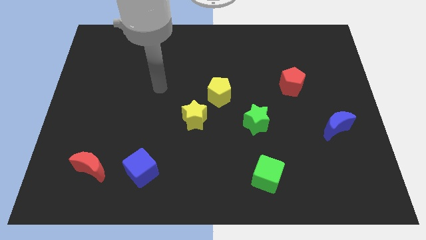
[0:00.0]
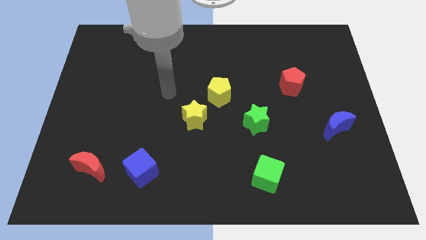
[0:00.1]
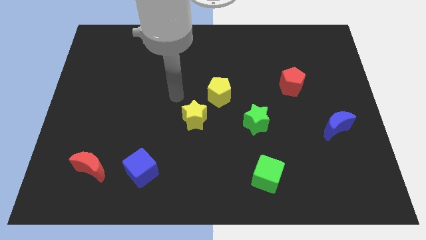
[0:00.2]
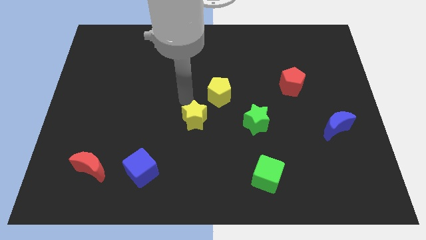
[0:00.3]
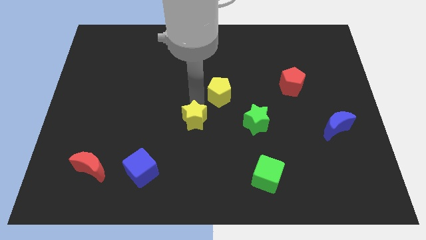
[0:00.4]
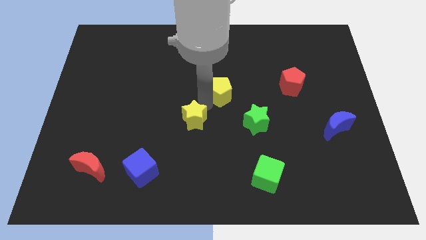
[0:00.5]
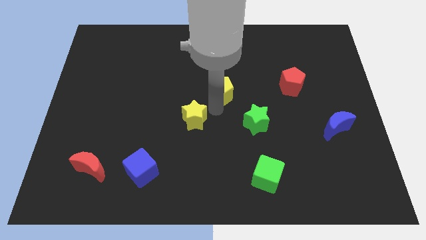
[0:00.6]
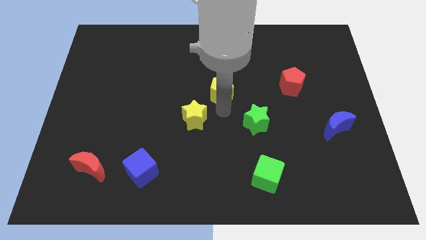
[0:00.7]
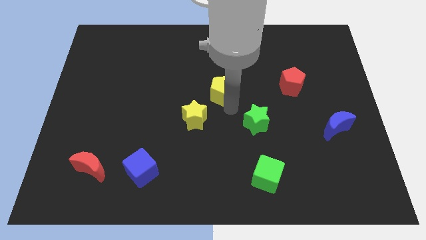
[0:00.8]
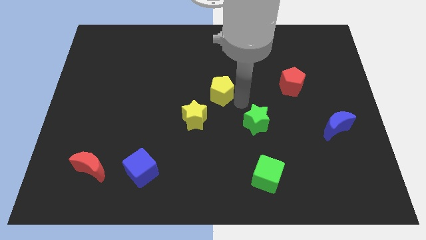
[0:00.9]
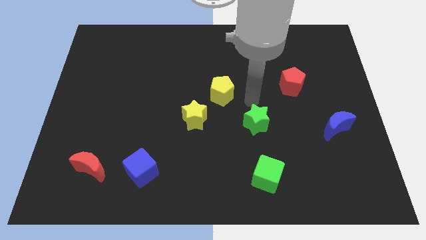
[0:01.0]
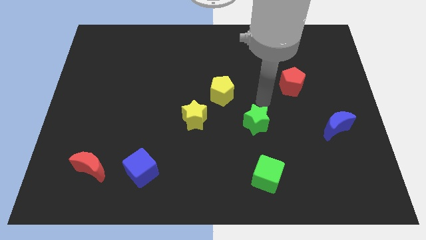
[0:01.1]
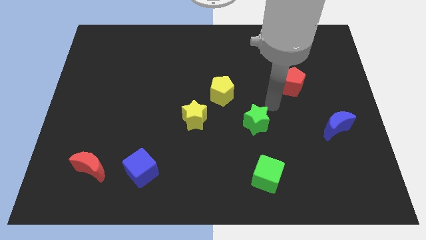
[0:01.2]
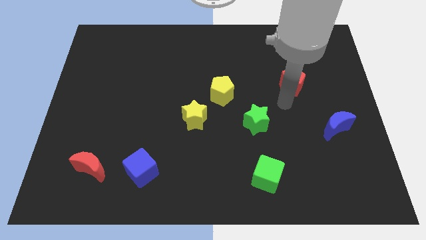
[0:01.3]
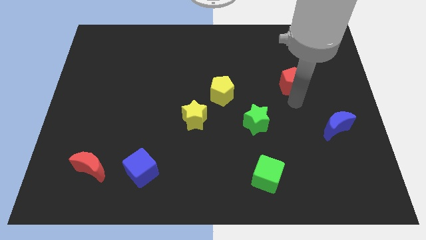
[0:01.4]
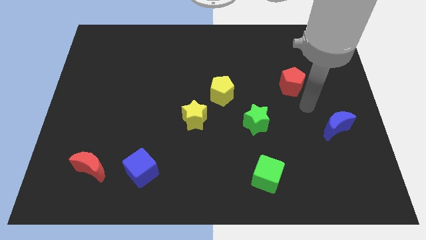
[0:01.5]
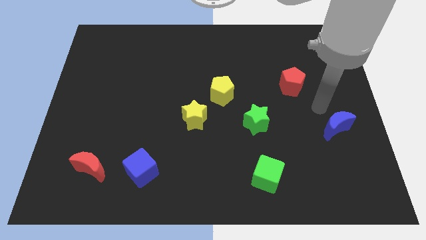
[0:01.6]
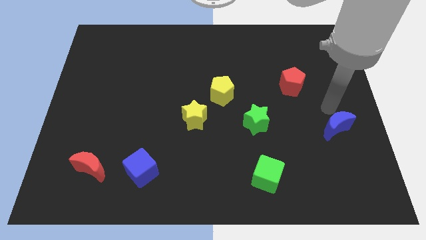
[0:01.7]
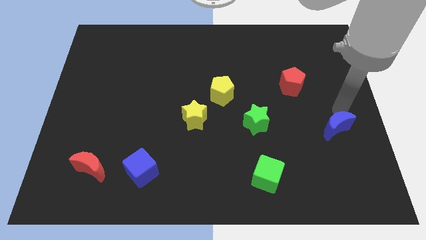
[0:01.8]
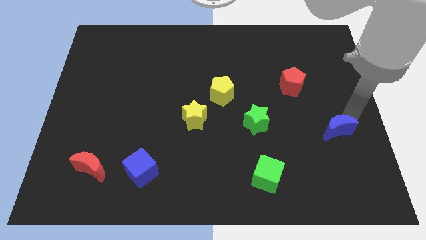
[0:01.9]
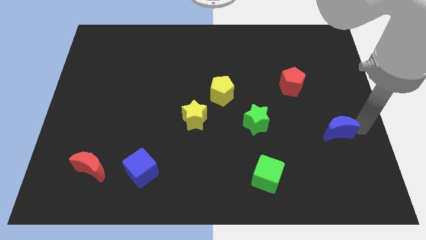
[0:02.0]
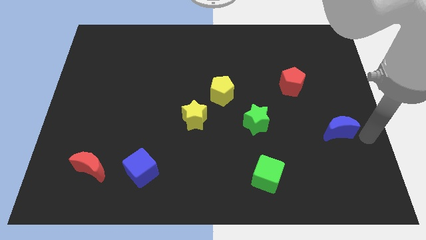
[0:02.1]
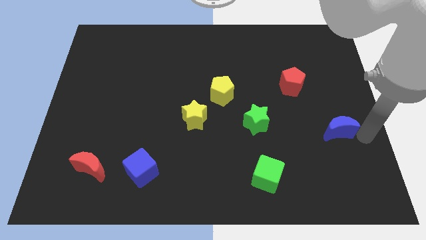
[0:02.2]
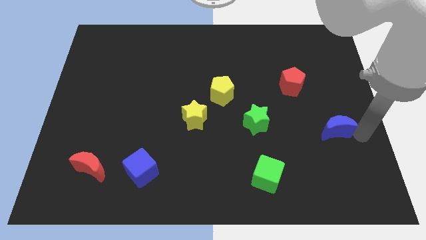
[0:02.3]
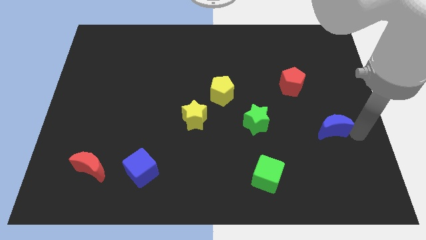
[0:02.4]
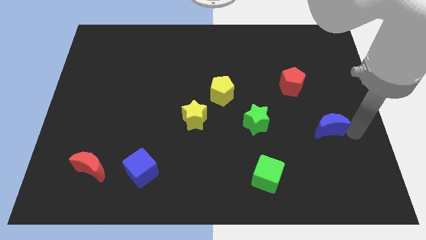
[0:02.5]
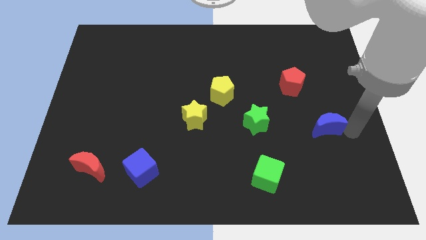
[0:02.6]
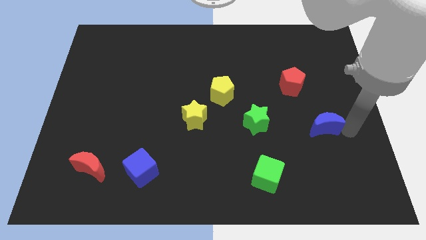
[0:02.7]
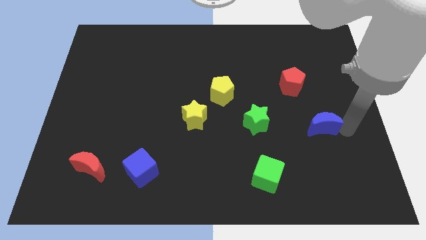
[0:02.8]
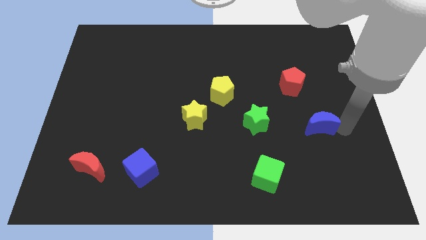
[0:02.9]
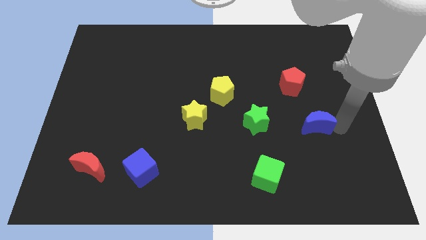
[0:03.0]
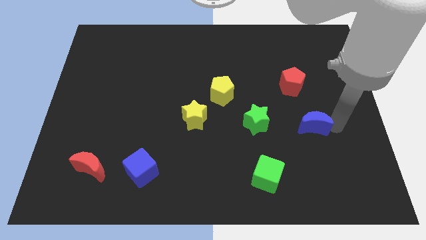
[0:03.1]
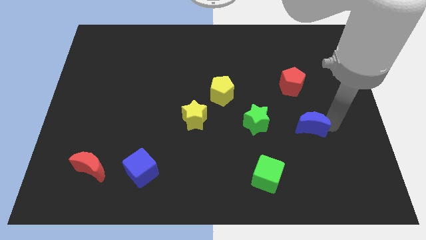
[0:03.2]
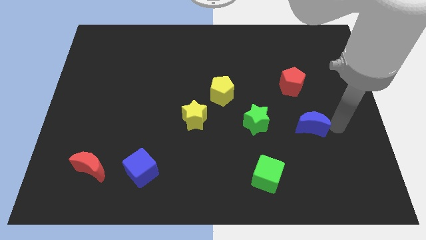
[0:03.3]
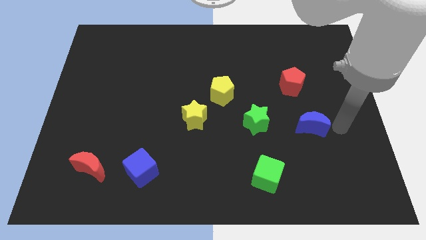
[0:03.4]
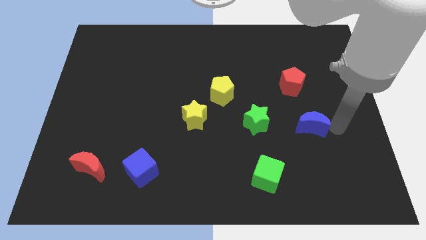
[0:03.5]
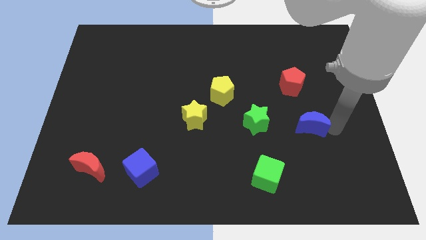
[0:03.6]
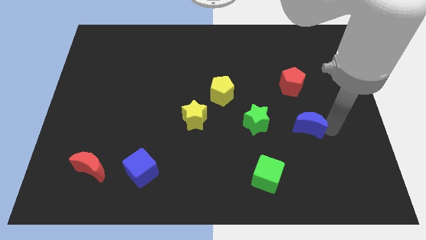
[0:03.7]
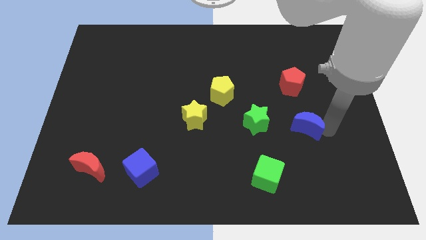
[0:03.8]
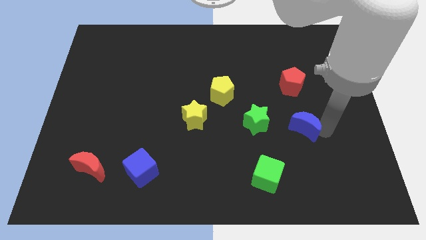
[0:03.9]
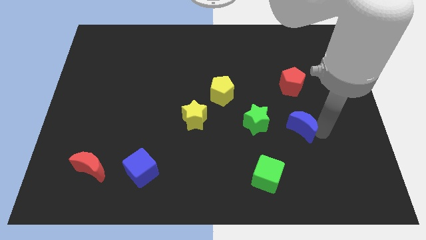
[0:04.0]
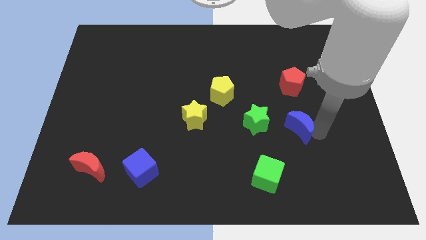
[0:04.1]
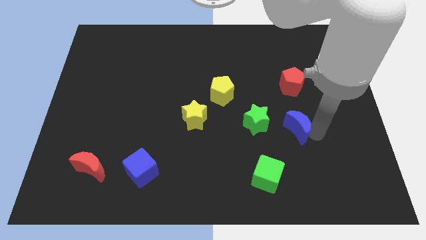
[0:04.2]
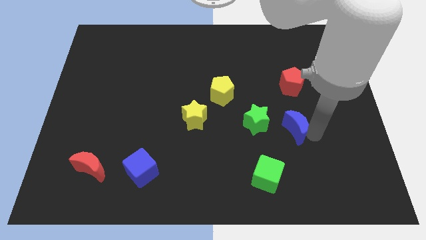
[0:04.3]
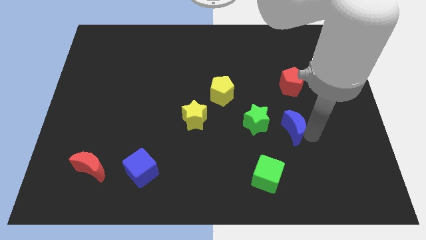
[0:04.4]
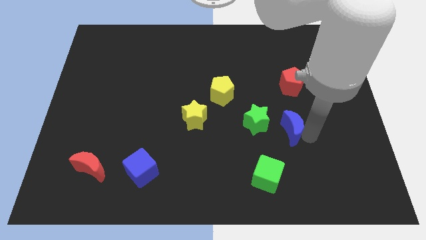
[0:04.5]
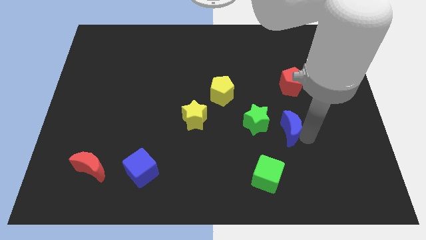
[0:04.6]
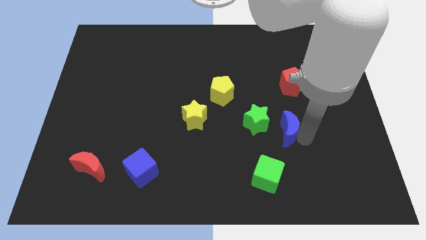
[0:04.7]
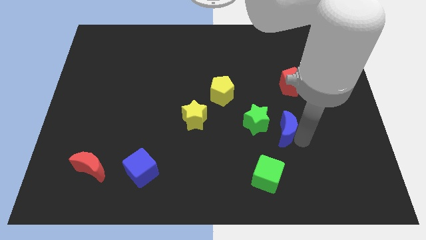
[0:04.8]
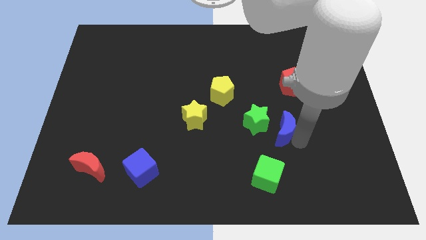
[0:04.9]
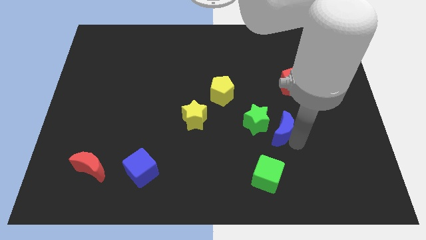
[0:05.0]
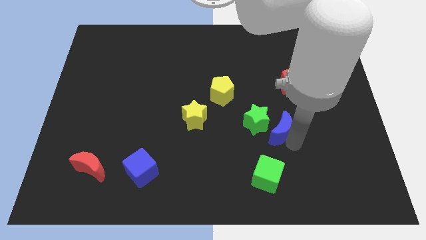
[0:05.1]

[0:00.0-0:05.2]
slide the blue moon to the green star
